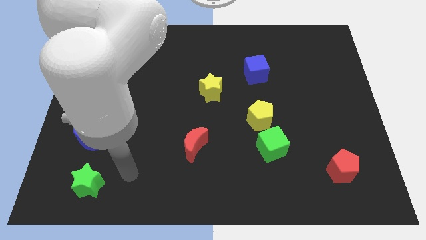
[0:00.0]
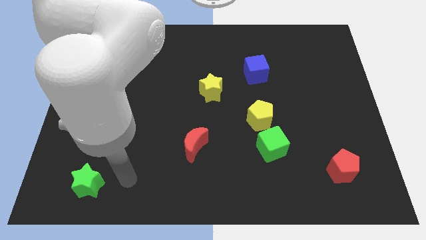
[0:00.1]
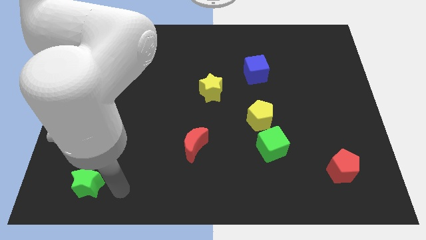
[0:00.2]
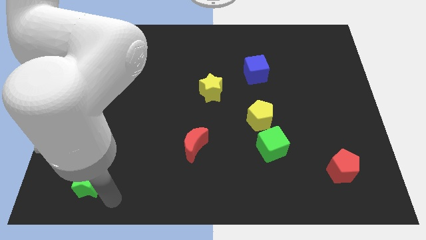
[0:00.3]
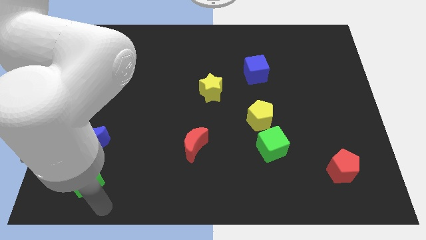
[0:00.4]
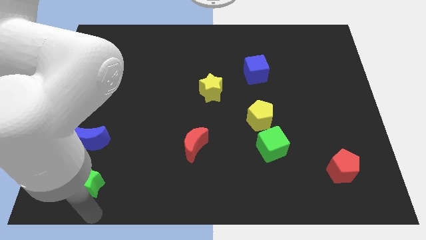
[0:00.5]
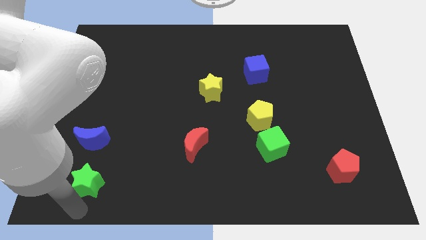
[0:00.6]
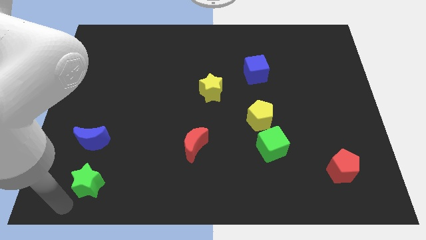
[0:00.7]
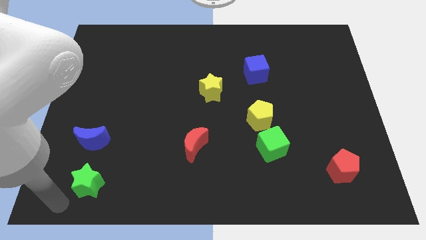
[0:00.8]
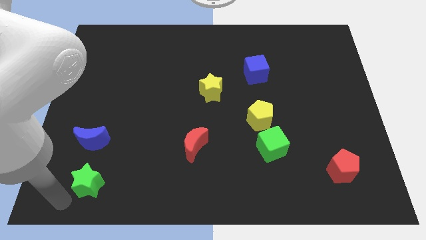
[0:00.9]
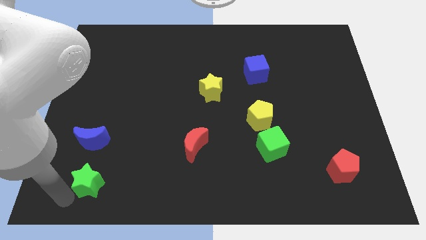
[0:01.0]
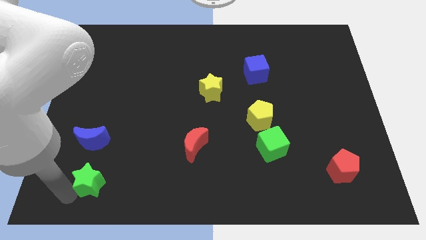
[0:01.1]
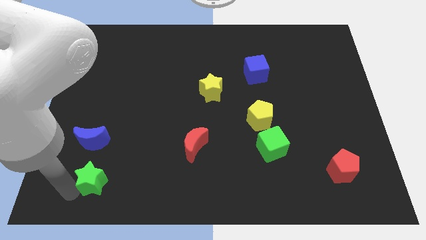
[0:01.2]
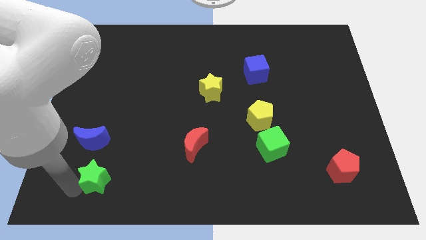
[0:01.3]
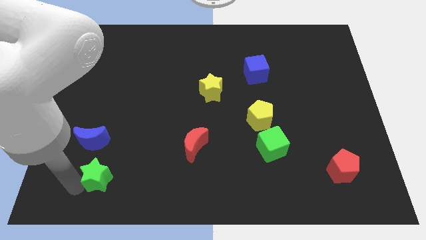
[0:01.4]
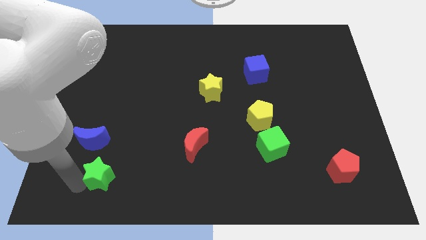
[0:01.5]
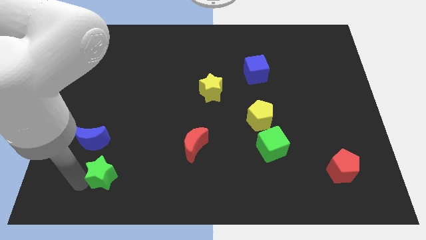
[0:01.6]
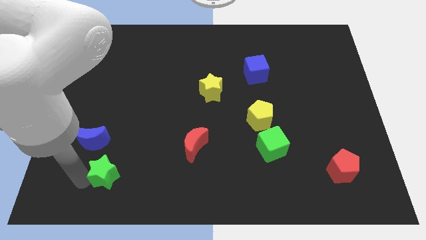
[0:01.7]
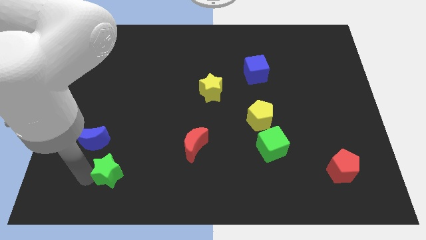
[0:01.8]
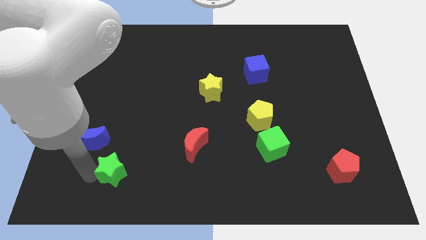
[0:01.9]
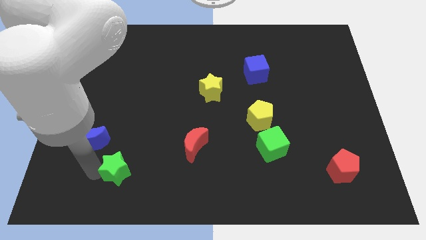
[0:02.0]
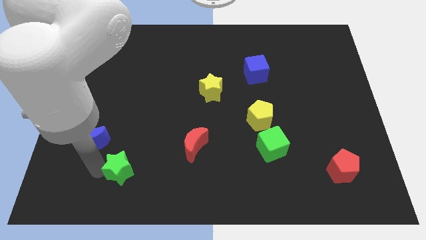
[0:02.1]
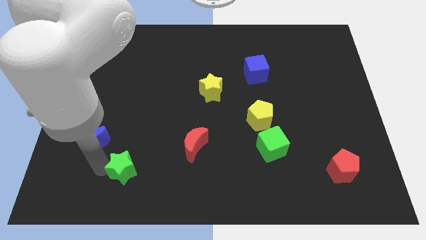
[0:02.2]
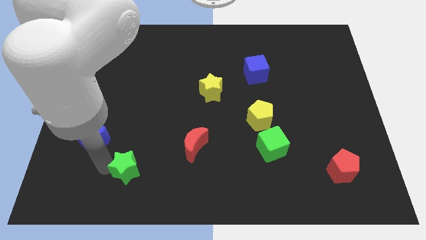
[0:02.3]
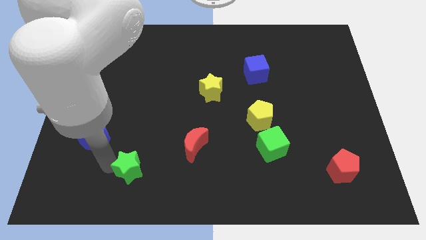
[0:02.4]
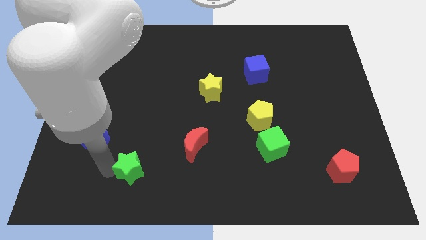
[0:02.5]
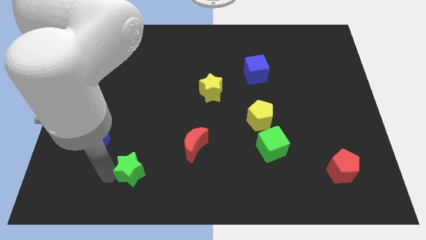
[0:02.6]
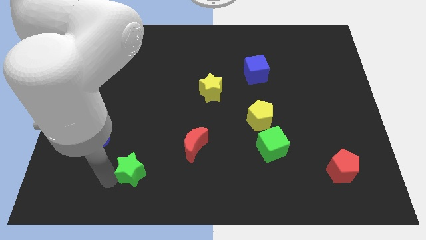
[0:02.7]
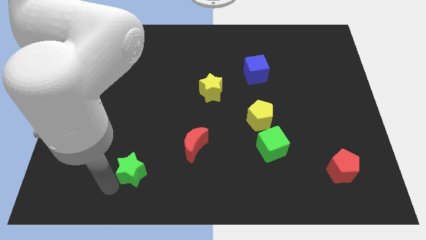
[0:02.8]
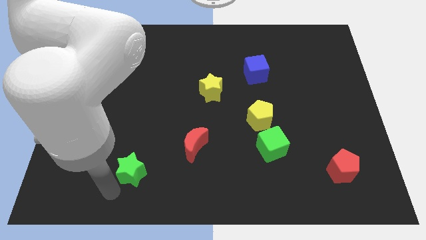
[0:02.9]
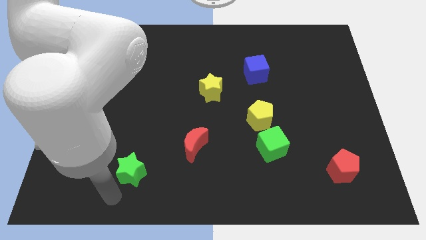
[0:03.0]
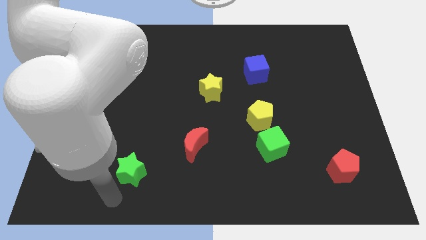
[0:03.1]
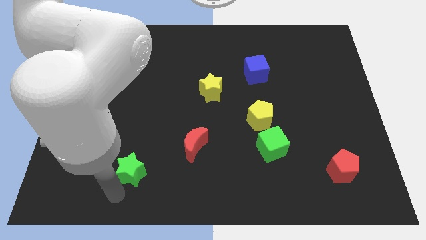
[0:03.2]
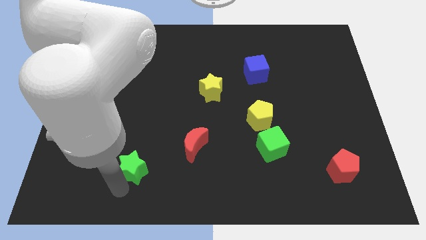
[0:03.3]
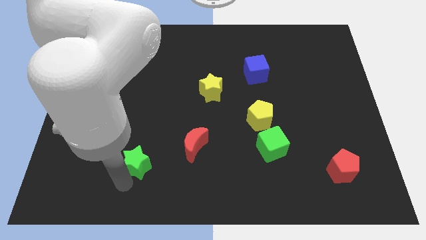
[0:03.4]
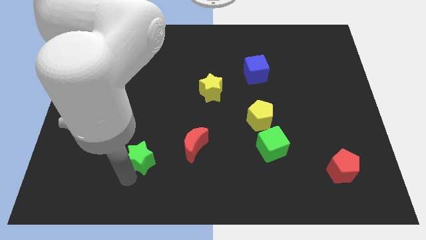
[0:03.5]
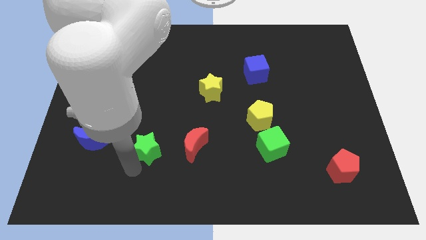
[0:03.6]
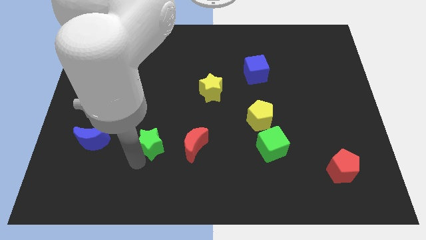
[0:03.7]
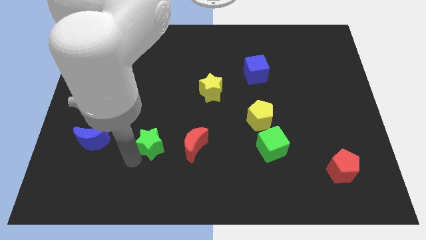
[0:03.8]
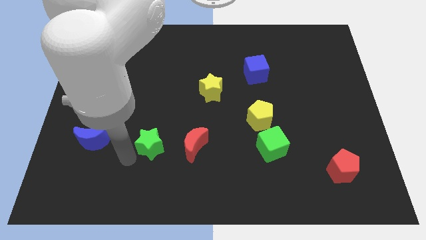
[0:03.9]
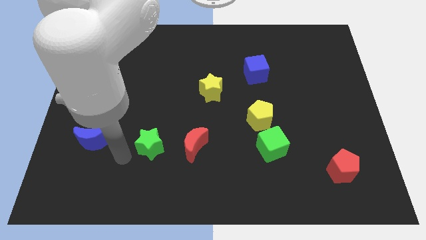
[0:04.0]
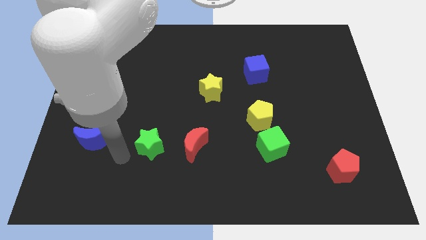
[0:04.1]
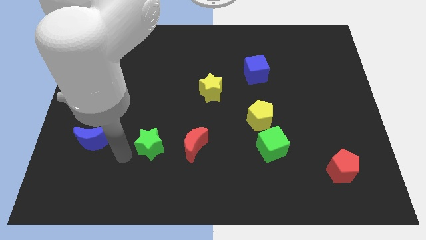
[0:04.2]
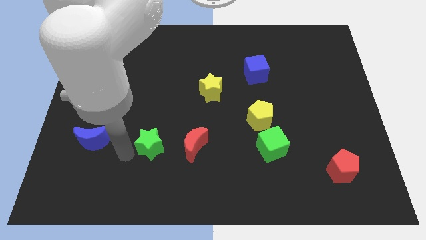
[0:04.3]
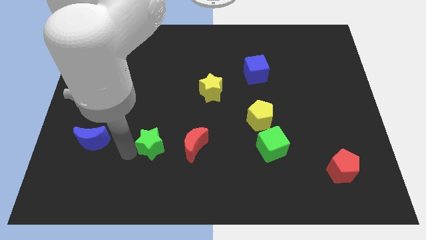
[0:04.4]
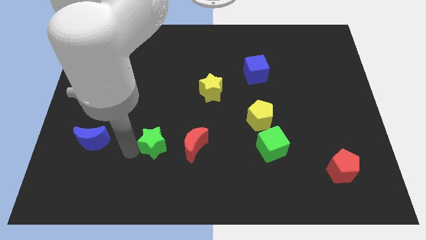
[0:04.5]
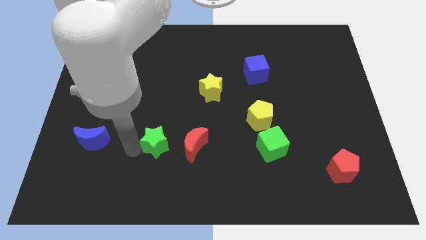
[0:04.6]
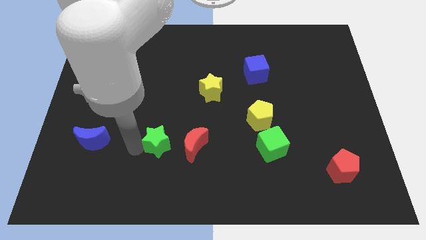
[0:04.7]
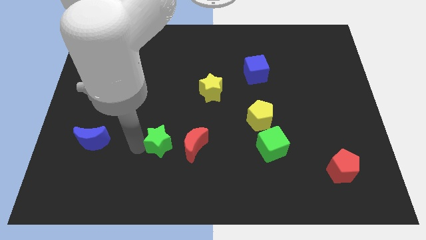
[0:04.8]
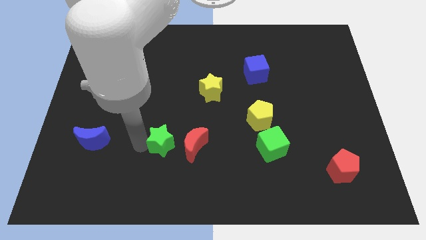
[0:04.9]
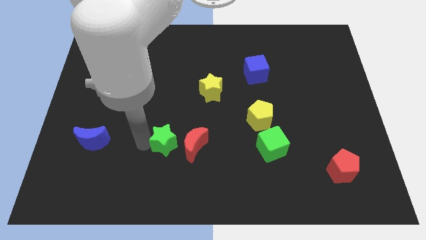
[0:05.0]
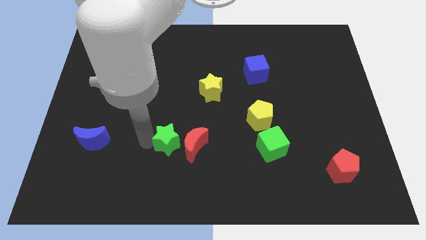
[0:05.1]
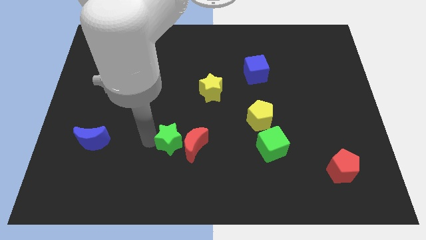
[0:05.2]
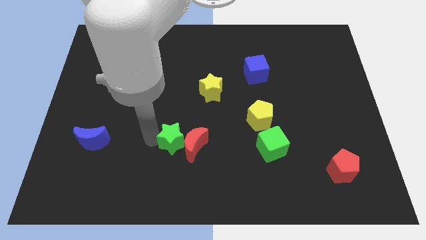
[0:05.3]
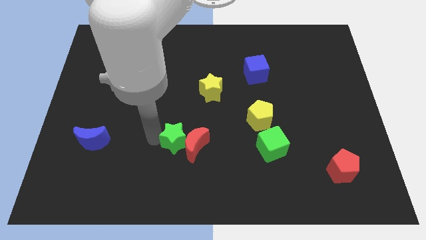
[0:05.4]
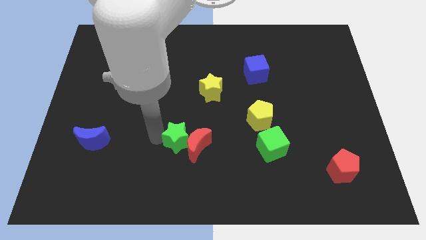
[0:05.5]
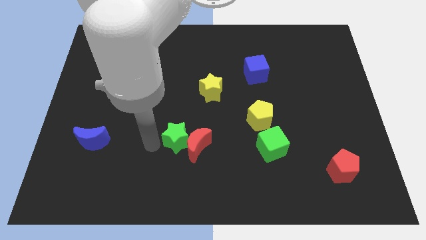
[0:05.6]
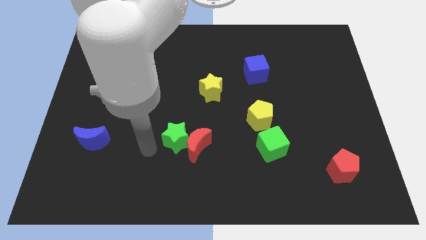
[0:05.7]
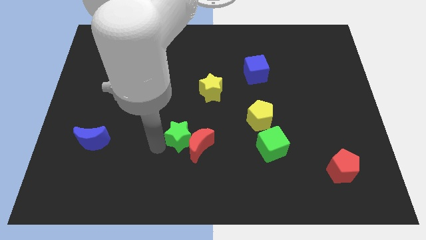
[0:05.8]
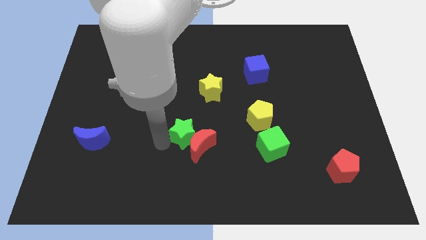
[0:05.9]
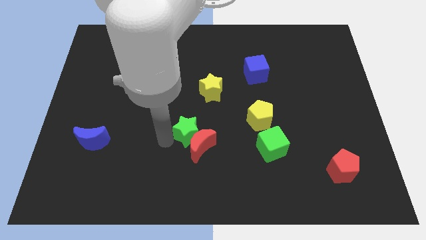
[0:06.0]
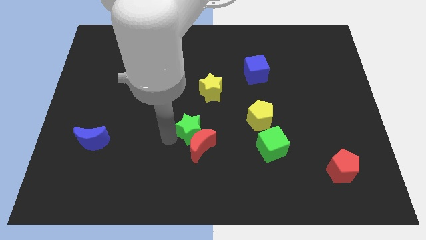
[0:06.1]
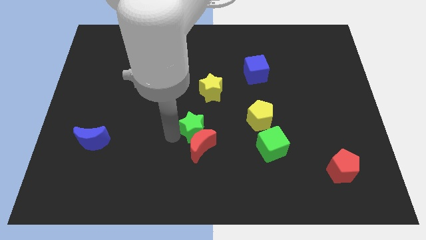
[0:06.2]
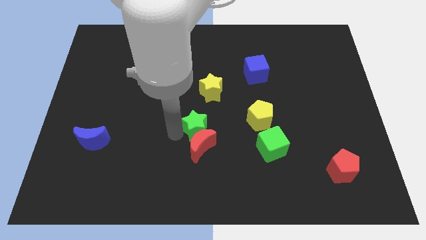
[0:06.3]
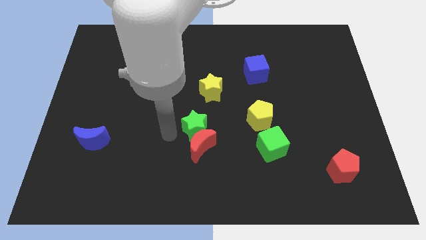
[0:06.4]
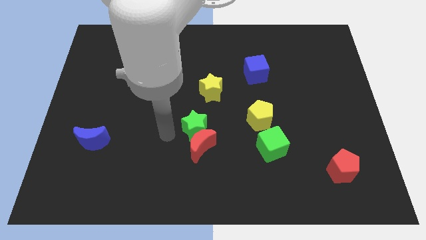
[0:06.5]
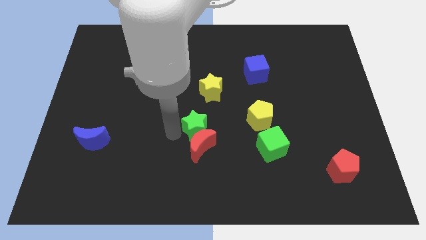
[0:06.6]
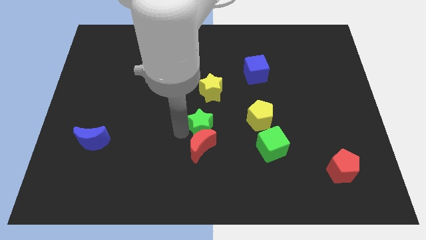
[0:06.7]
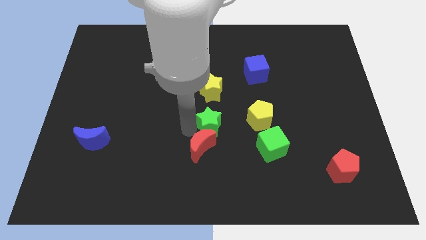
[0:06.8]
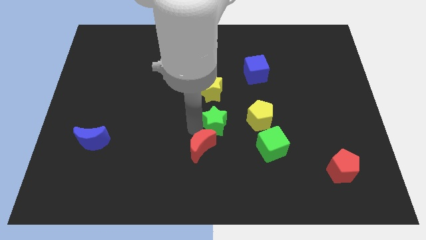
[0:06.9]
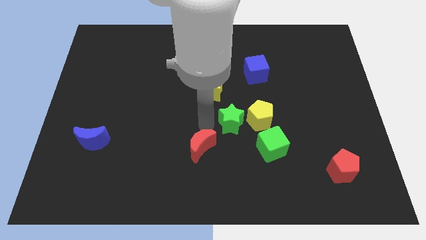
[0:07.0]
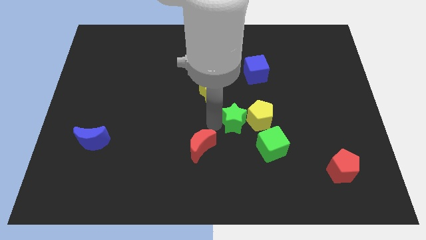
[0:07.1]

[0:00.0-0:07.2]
slide the green star towards the yellow pentagon
